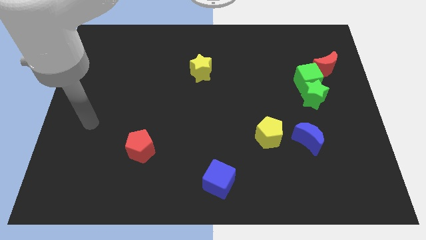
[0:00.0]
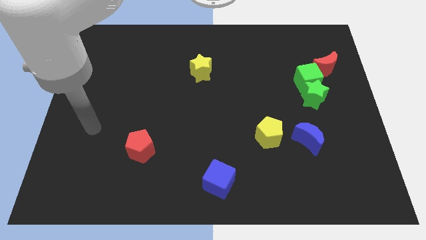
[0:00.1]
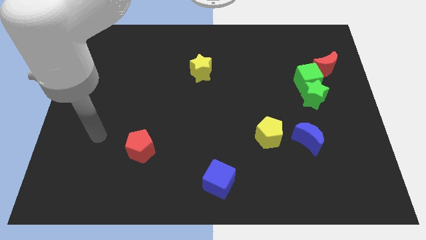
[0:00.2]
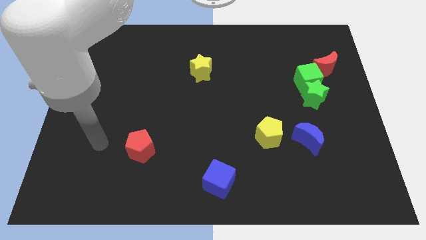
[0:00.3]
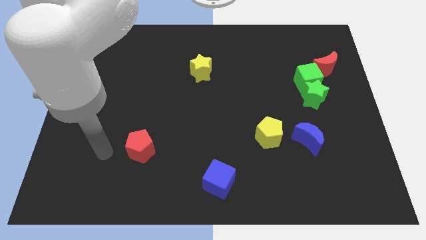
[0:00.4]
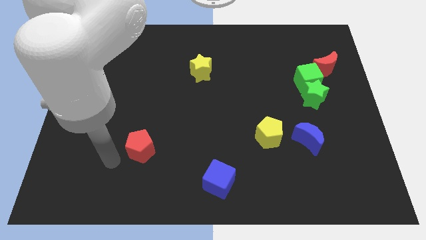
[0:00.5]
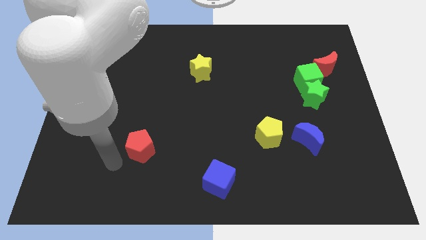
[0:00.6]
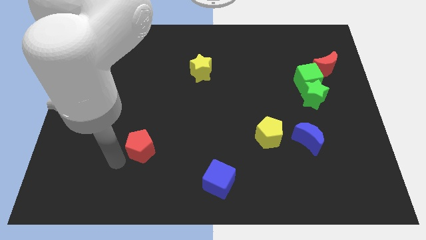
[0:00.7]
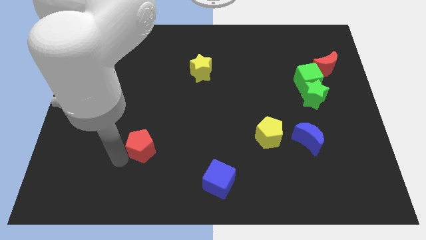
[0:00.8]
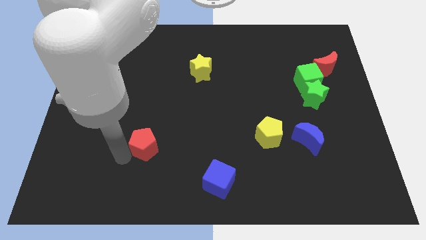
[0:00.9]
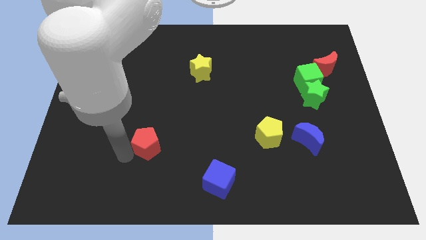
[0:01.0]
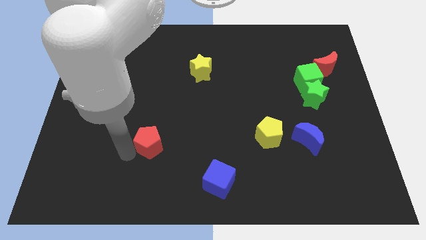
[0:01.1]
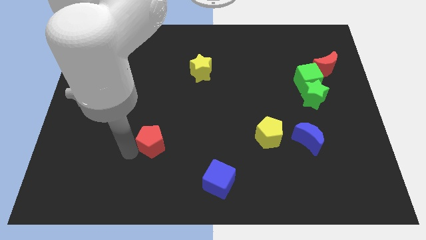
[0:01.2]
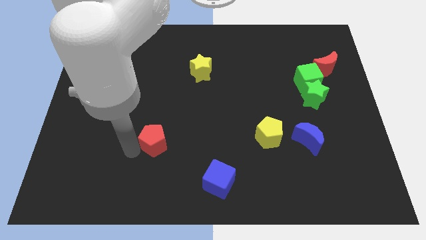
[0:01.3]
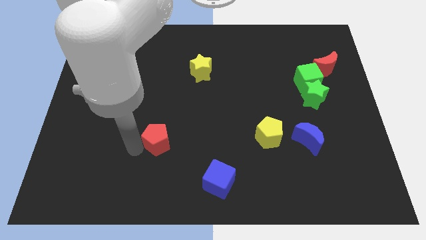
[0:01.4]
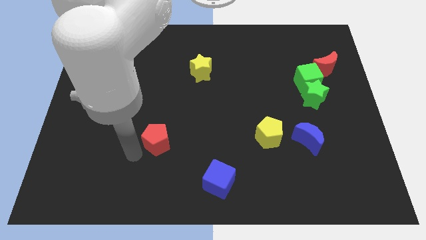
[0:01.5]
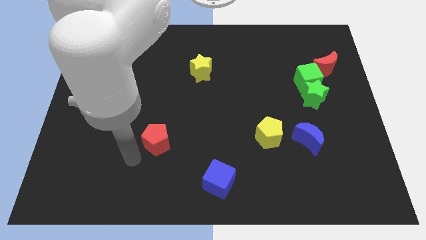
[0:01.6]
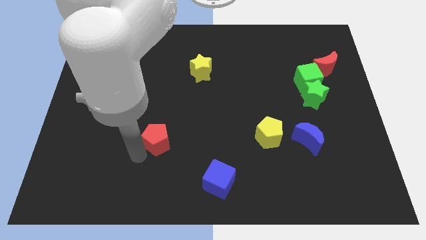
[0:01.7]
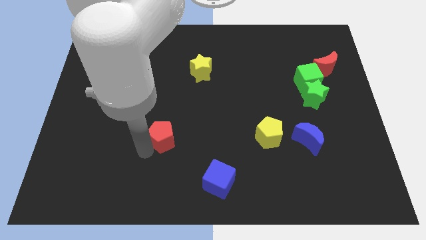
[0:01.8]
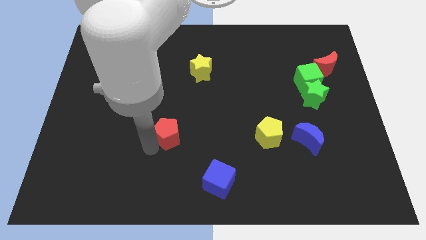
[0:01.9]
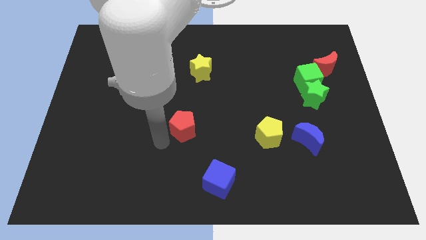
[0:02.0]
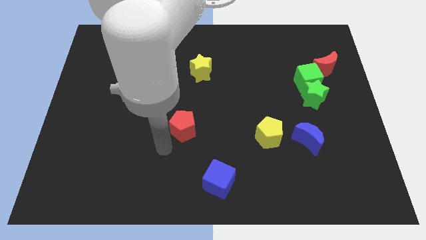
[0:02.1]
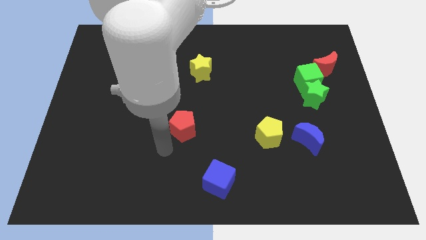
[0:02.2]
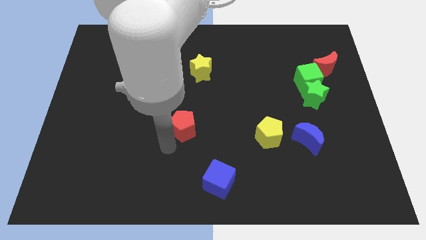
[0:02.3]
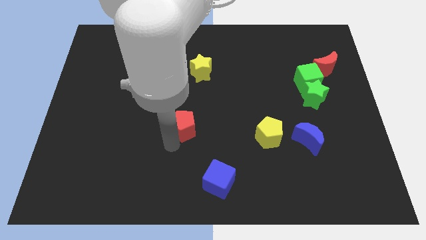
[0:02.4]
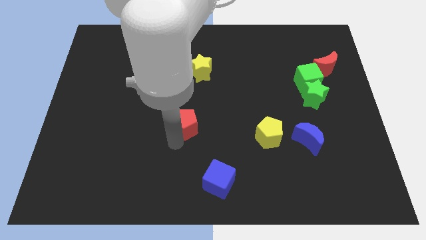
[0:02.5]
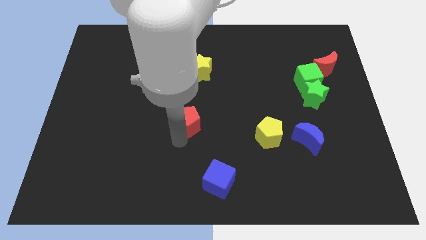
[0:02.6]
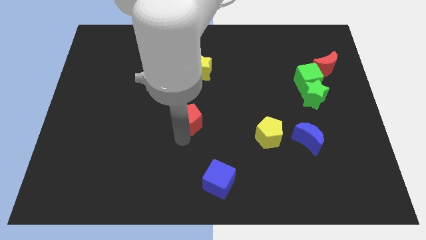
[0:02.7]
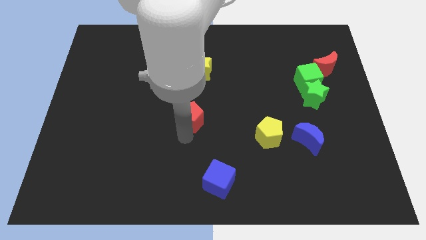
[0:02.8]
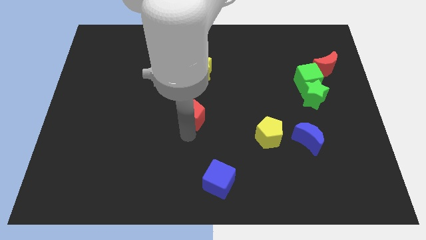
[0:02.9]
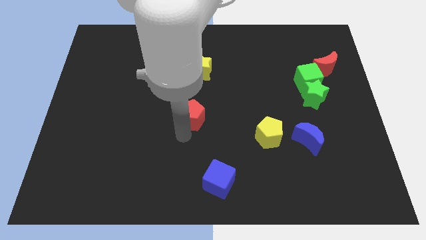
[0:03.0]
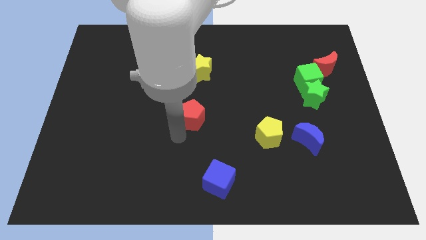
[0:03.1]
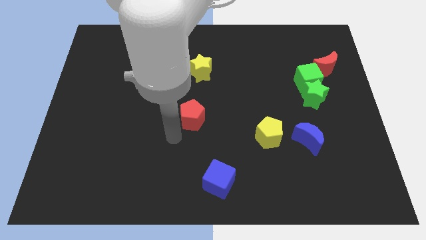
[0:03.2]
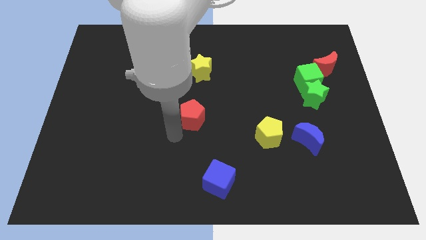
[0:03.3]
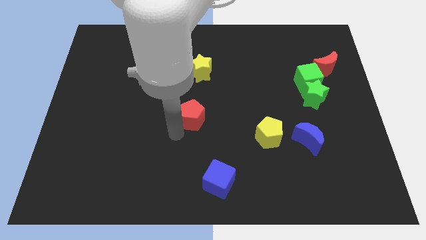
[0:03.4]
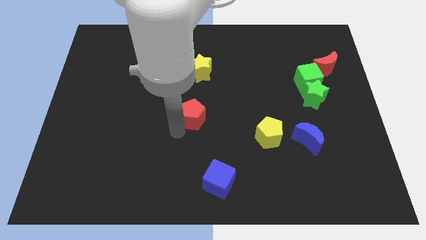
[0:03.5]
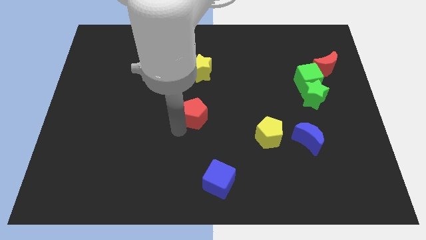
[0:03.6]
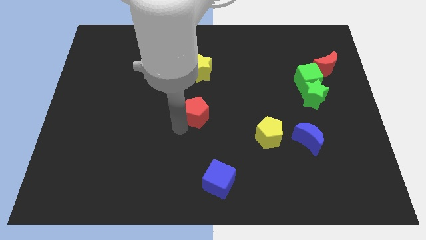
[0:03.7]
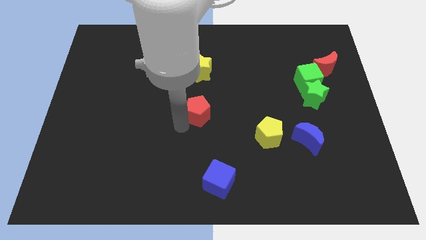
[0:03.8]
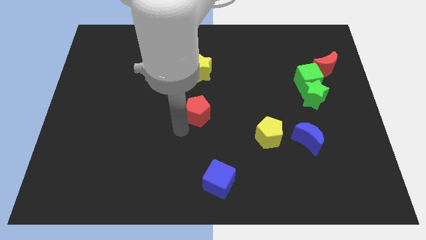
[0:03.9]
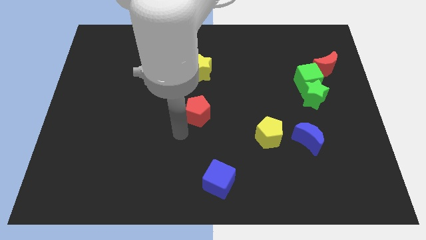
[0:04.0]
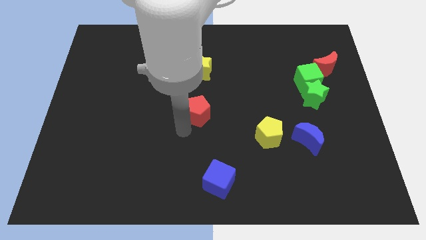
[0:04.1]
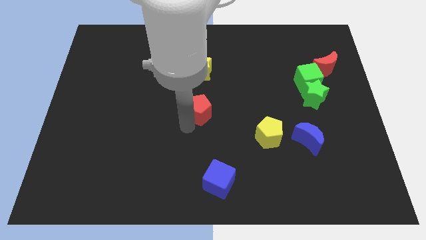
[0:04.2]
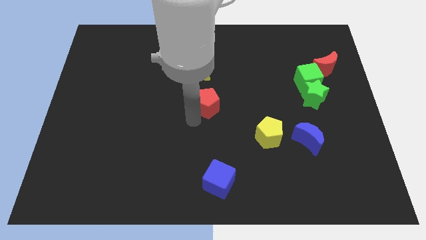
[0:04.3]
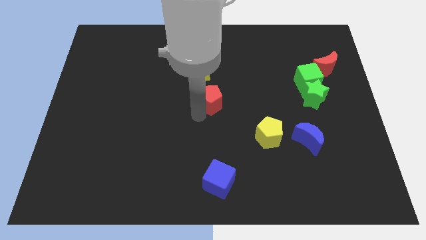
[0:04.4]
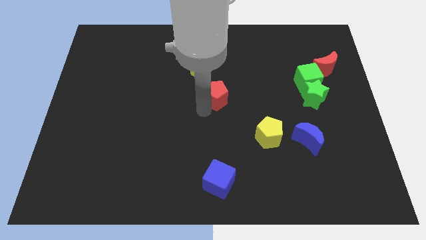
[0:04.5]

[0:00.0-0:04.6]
move the red pentagon diagonally up and to the right

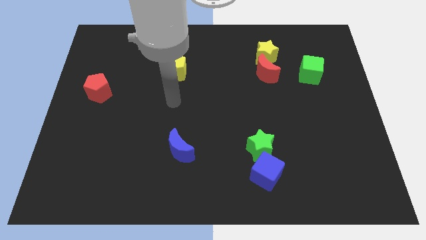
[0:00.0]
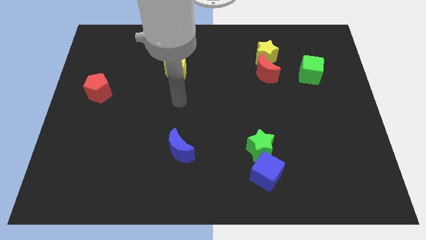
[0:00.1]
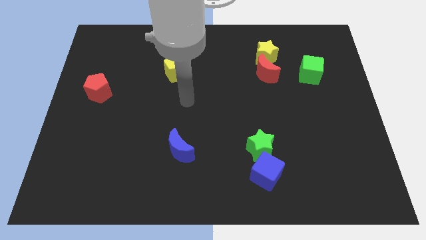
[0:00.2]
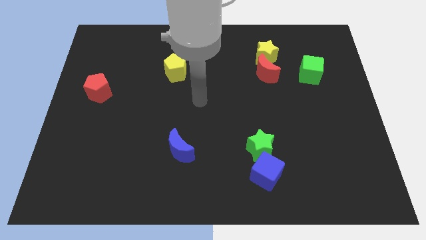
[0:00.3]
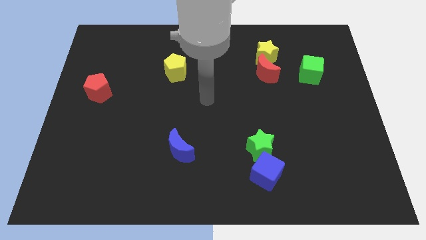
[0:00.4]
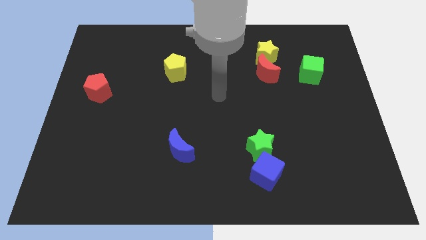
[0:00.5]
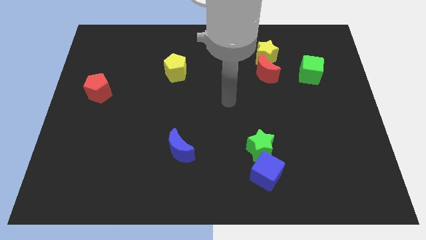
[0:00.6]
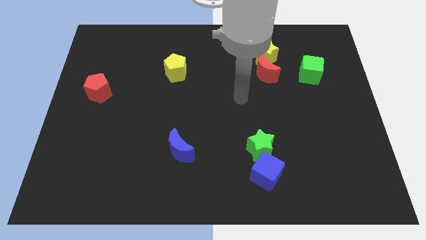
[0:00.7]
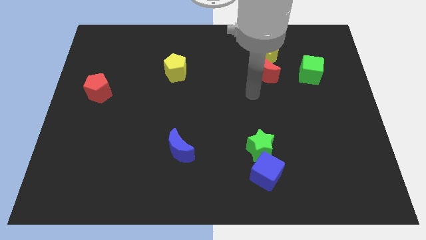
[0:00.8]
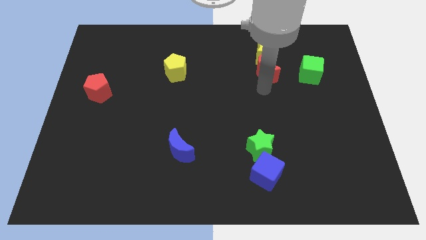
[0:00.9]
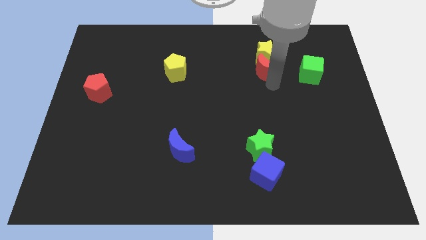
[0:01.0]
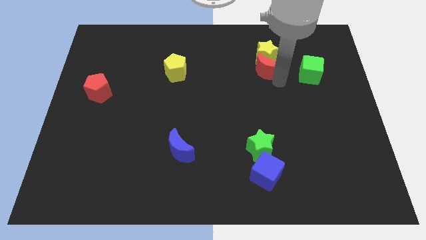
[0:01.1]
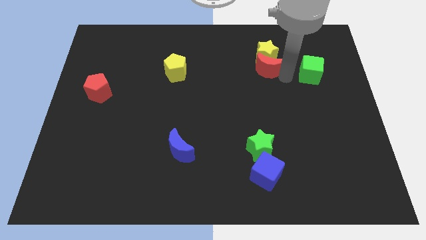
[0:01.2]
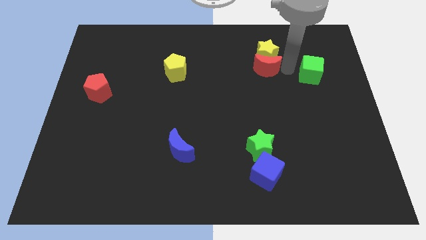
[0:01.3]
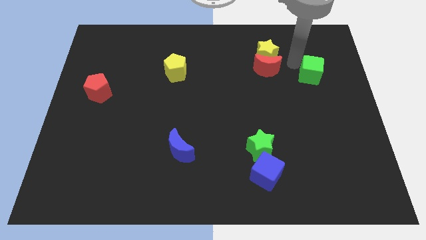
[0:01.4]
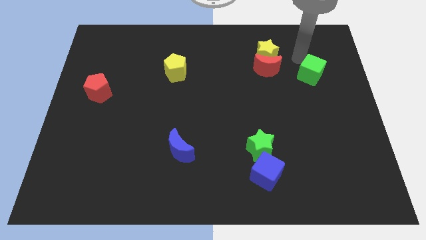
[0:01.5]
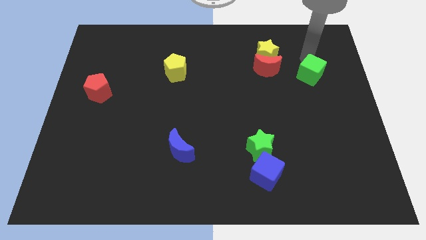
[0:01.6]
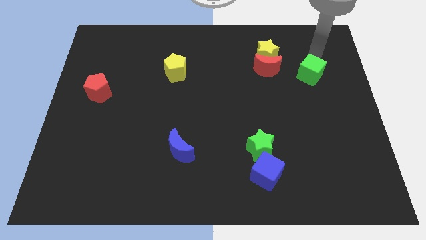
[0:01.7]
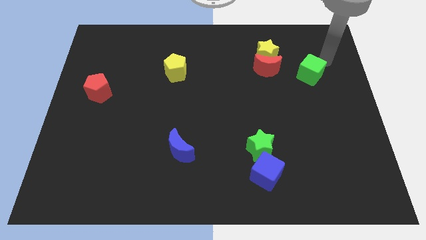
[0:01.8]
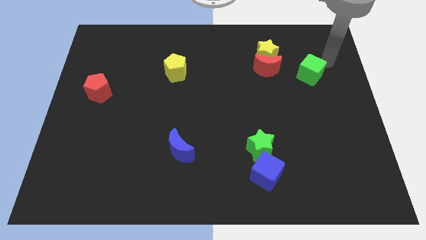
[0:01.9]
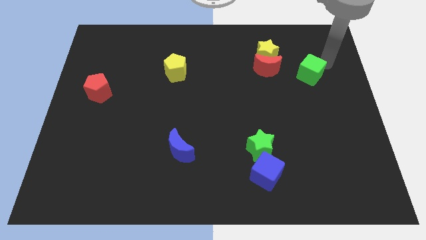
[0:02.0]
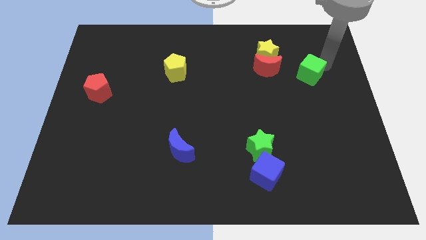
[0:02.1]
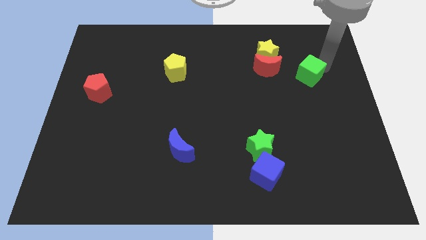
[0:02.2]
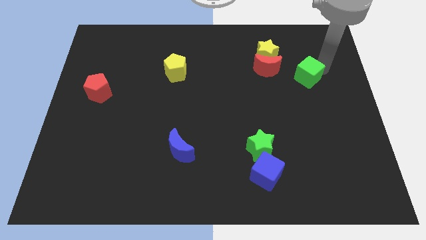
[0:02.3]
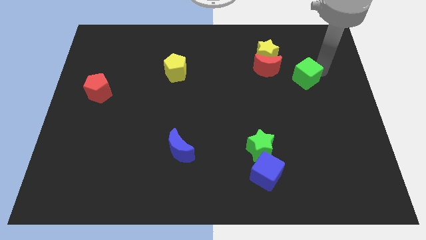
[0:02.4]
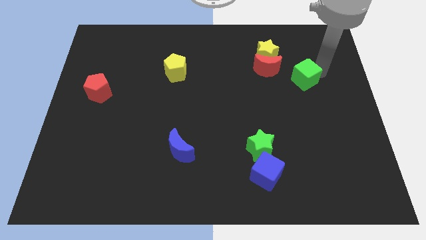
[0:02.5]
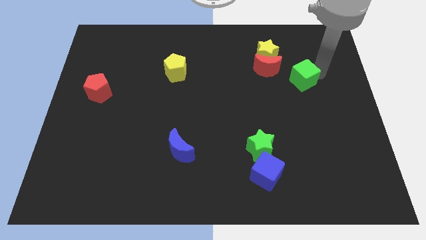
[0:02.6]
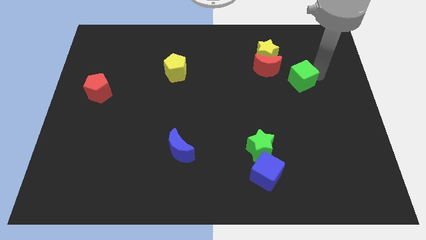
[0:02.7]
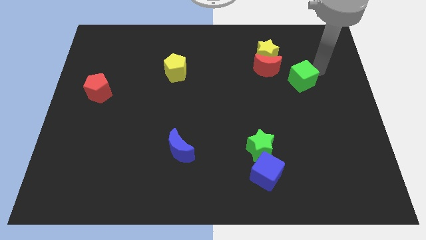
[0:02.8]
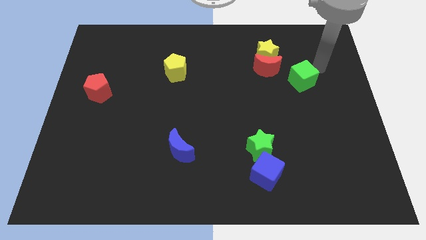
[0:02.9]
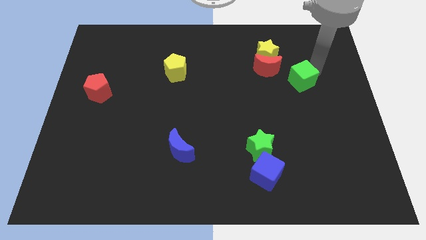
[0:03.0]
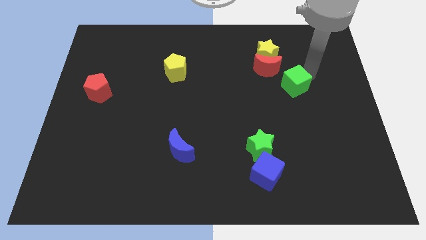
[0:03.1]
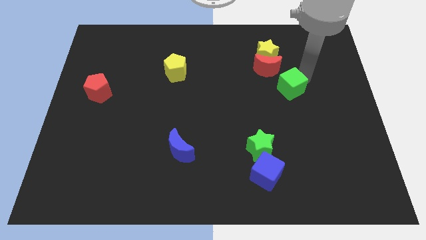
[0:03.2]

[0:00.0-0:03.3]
slide the green cube down and then to the left slightly

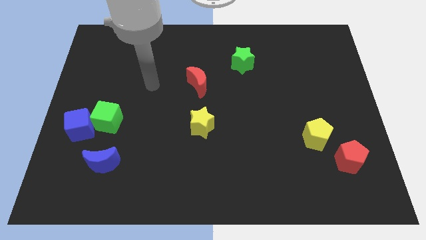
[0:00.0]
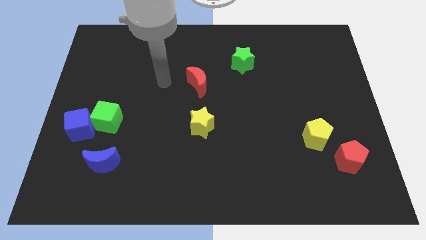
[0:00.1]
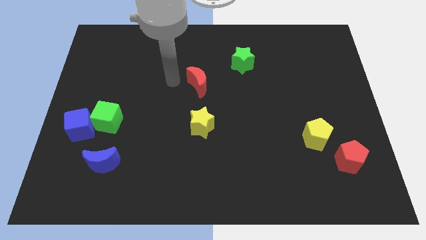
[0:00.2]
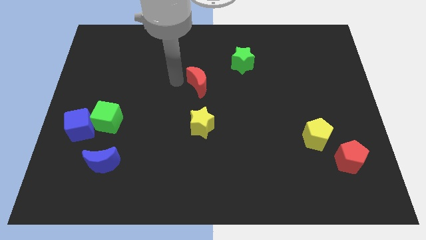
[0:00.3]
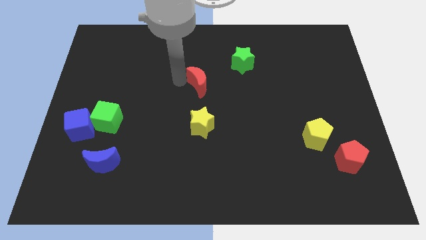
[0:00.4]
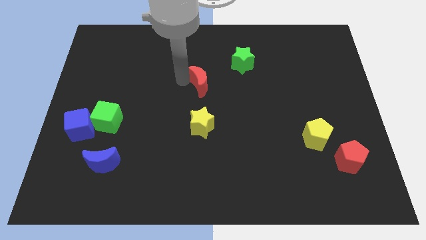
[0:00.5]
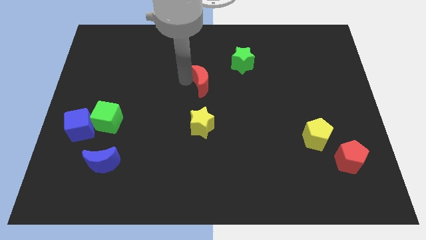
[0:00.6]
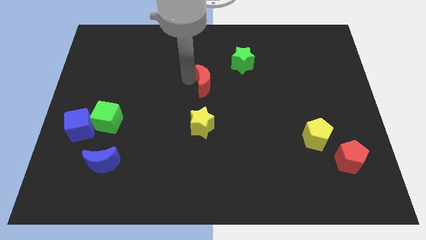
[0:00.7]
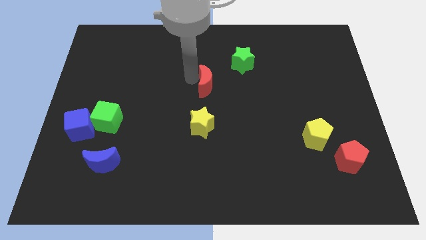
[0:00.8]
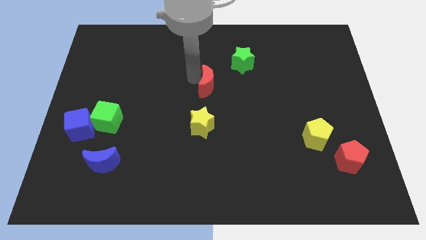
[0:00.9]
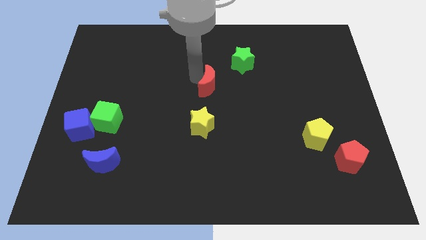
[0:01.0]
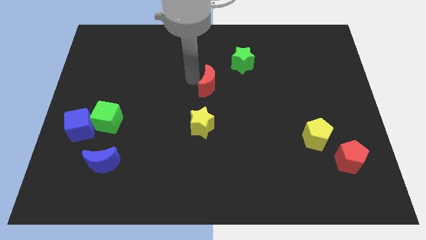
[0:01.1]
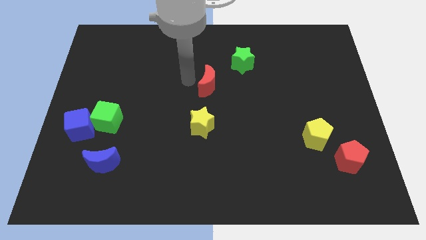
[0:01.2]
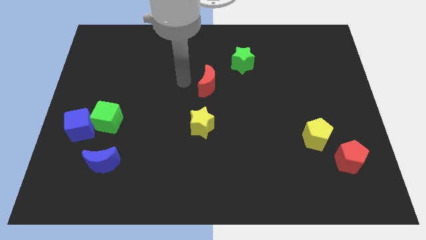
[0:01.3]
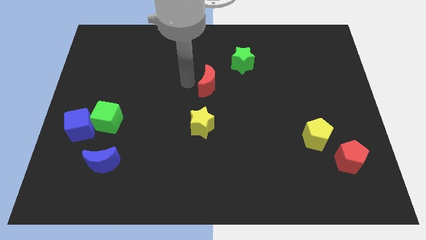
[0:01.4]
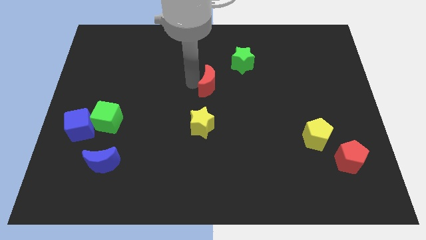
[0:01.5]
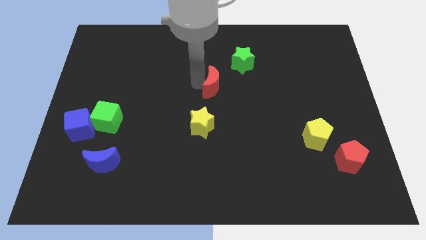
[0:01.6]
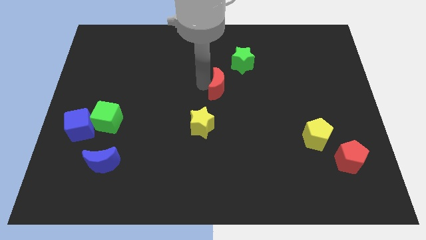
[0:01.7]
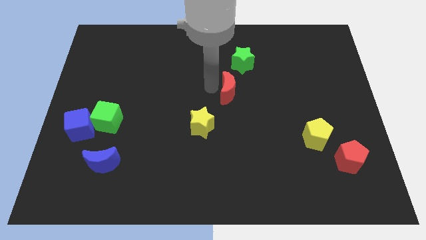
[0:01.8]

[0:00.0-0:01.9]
slide the red moon to the right a bit
